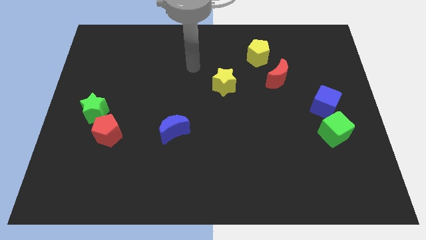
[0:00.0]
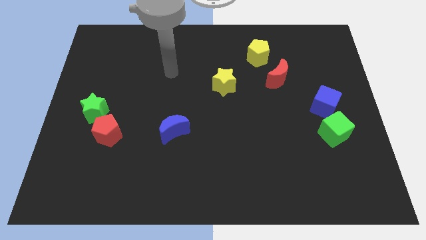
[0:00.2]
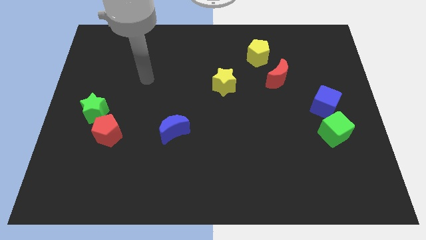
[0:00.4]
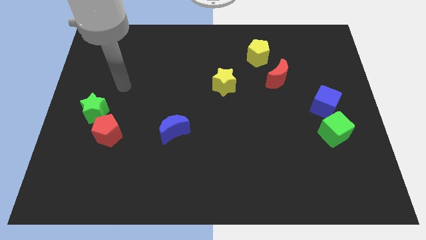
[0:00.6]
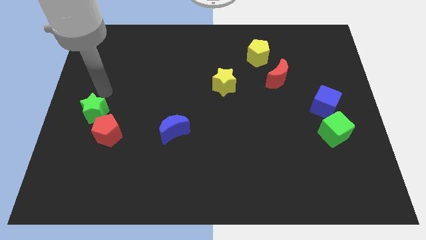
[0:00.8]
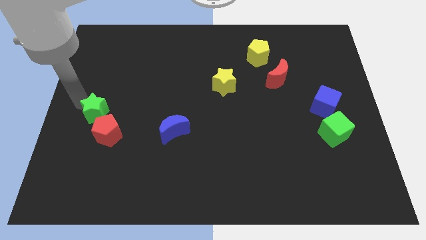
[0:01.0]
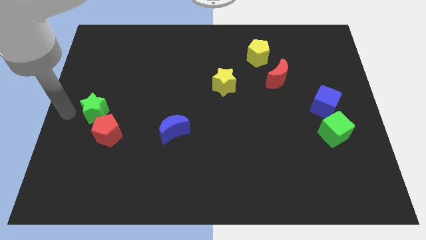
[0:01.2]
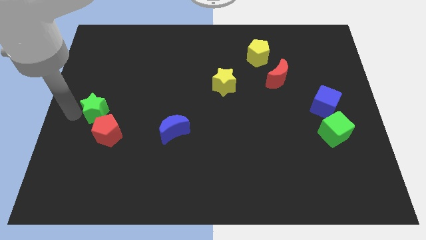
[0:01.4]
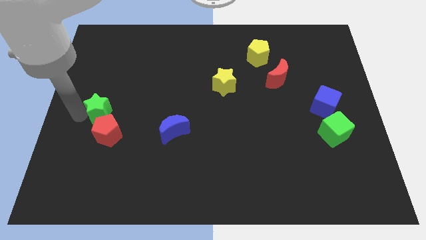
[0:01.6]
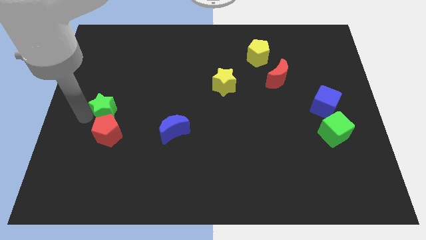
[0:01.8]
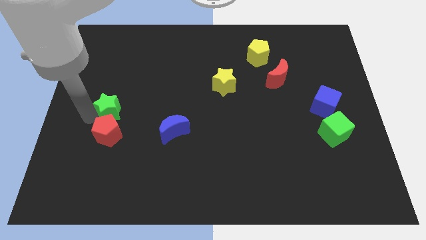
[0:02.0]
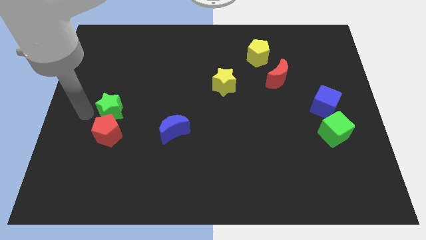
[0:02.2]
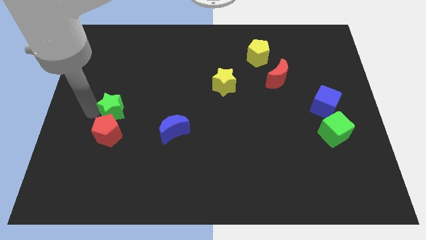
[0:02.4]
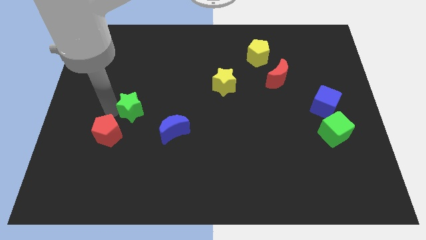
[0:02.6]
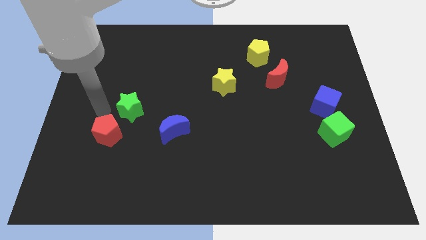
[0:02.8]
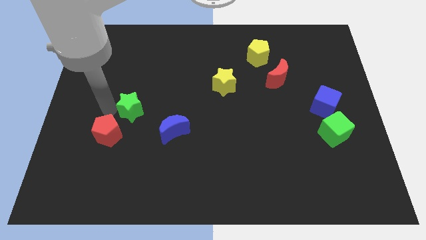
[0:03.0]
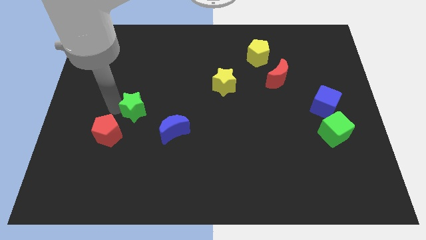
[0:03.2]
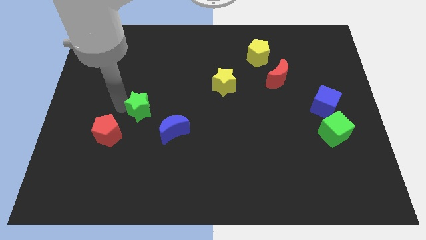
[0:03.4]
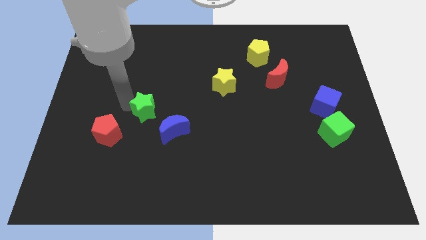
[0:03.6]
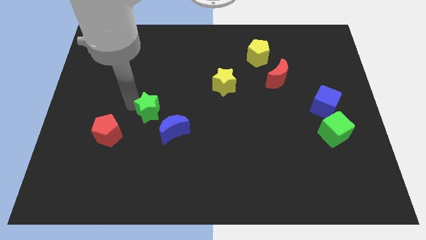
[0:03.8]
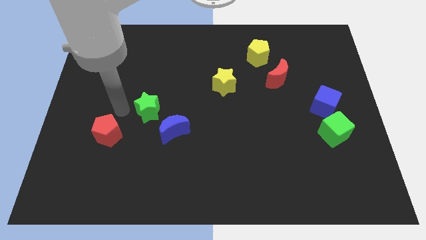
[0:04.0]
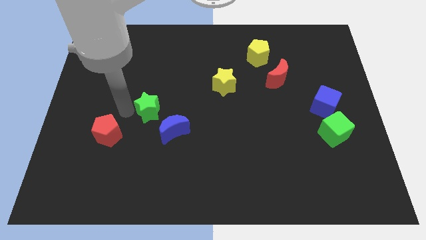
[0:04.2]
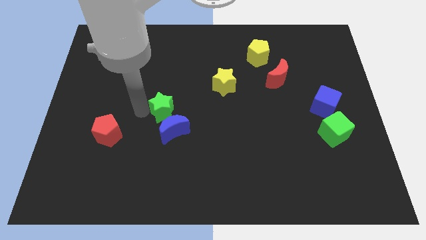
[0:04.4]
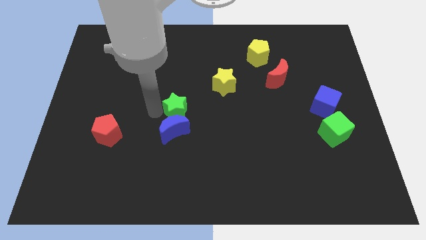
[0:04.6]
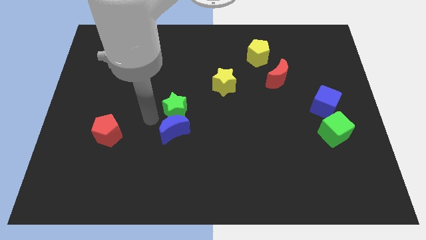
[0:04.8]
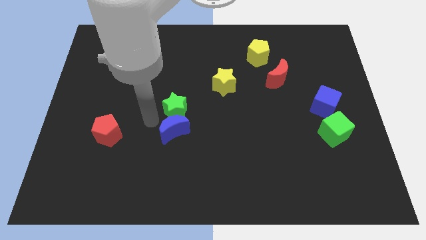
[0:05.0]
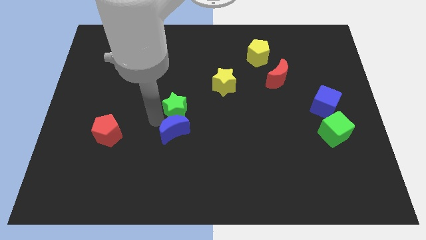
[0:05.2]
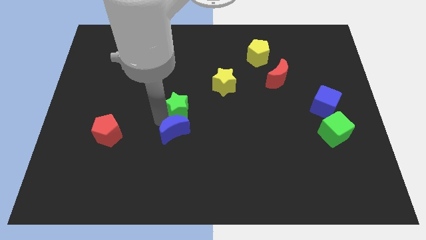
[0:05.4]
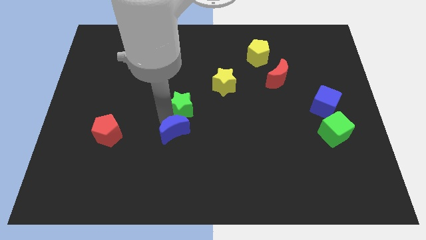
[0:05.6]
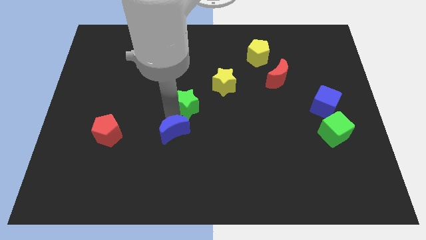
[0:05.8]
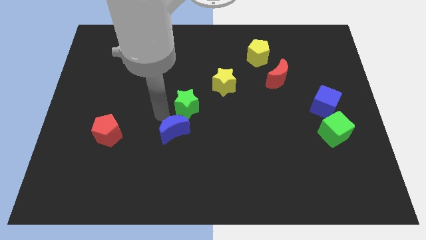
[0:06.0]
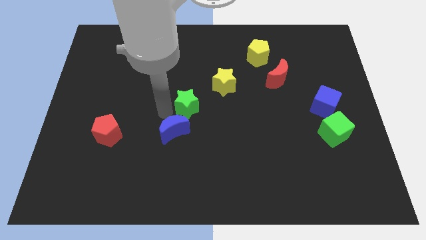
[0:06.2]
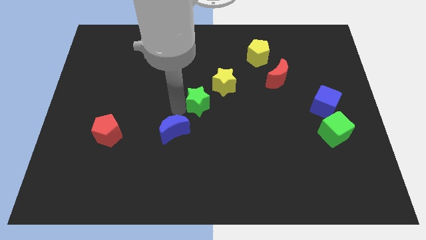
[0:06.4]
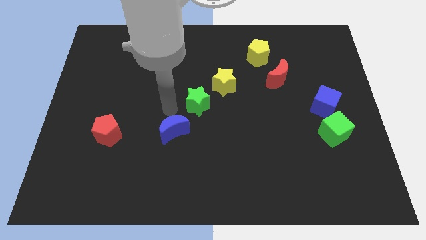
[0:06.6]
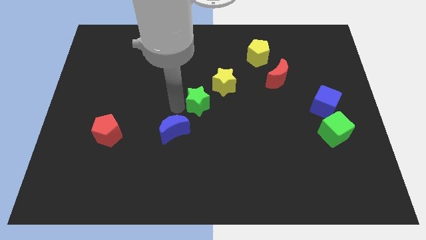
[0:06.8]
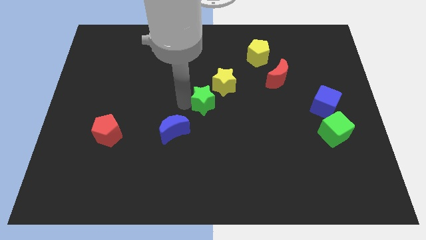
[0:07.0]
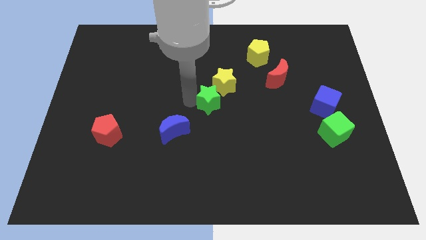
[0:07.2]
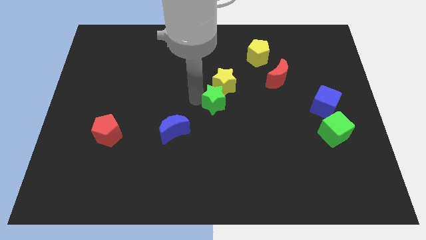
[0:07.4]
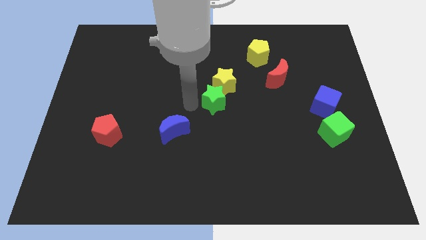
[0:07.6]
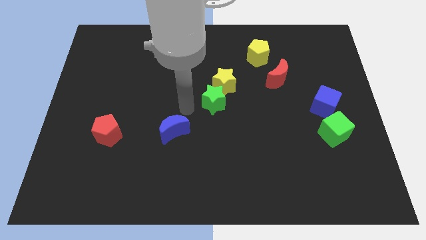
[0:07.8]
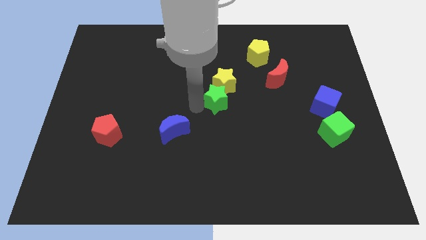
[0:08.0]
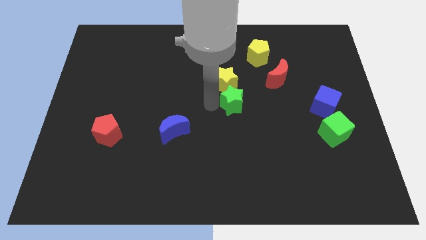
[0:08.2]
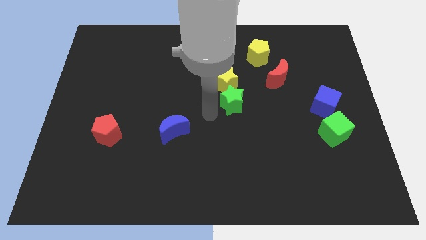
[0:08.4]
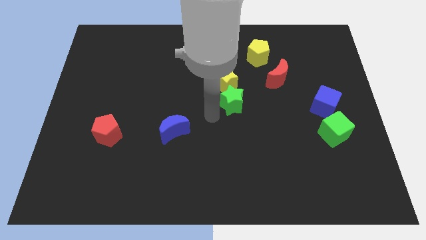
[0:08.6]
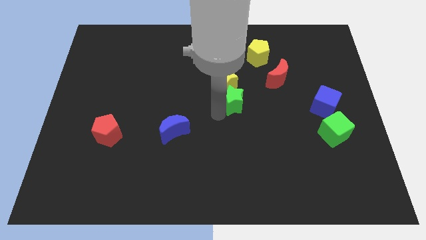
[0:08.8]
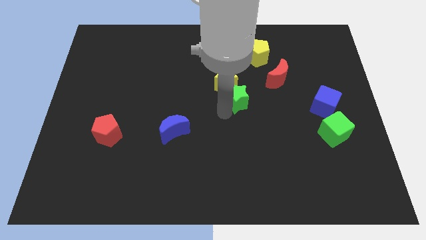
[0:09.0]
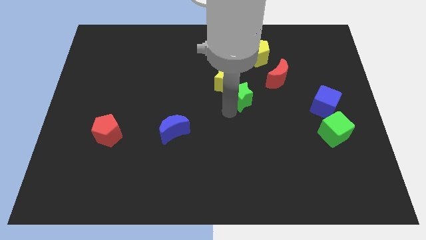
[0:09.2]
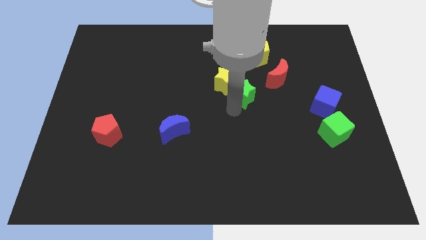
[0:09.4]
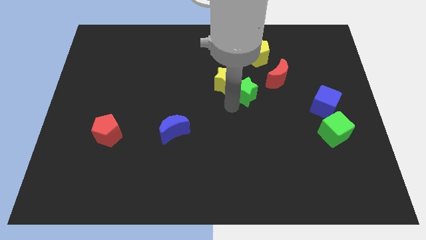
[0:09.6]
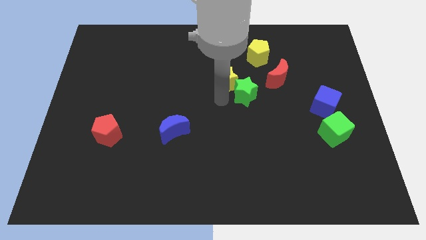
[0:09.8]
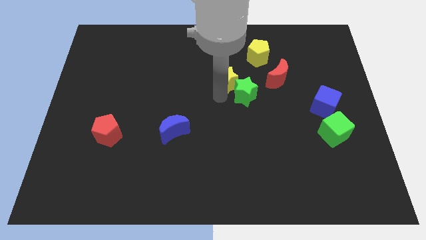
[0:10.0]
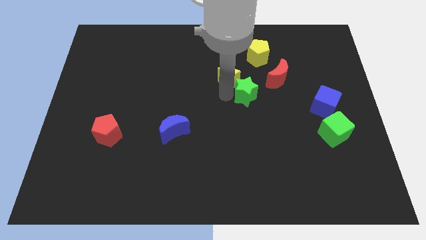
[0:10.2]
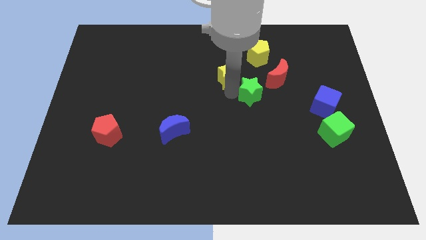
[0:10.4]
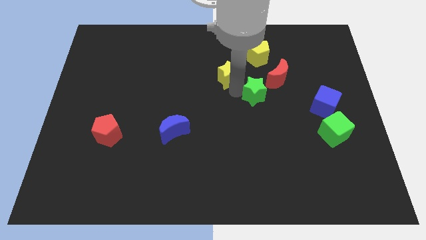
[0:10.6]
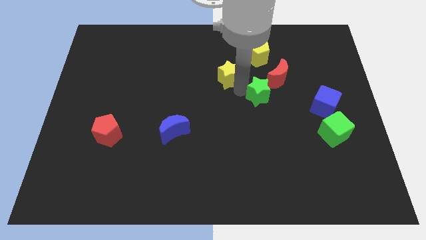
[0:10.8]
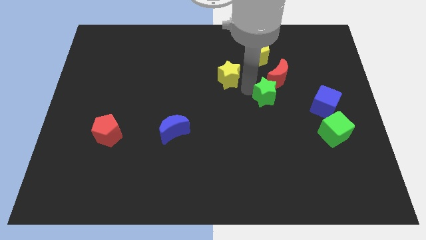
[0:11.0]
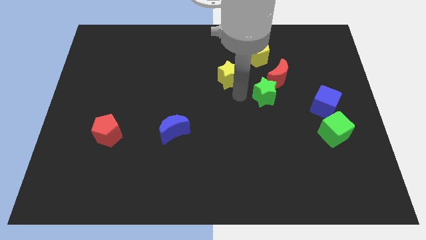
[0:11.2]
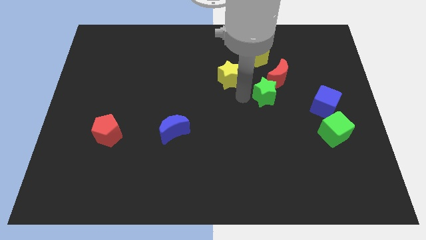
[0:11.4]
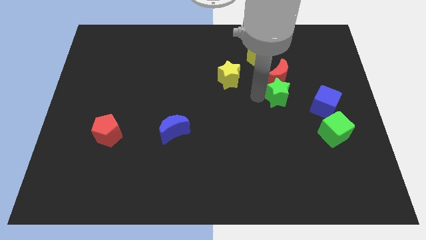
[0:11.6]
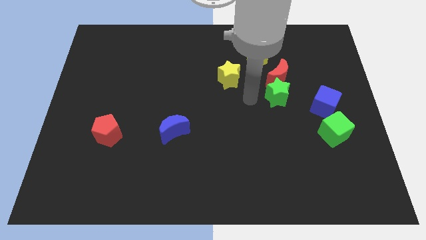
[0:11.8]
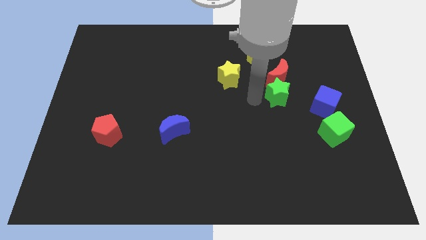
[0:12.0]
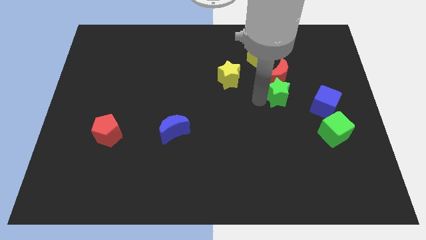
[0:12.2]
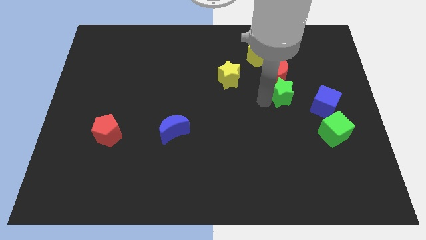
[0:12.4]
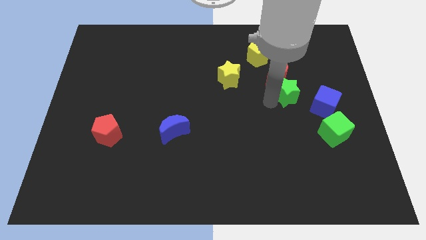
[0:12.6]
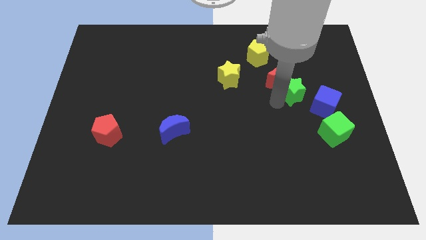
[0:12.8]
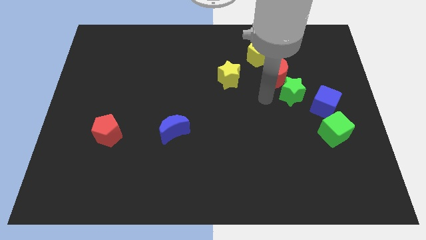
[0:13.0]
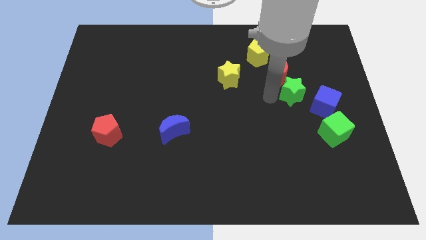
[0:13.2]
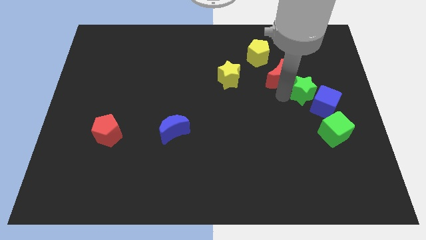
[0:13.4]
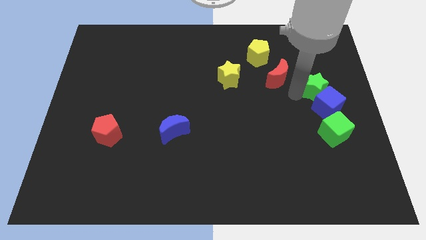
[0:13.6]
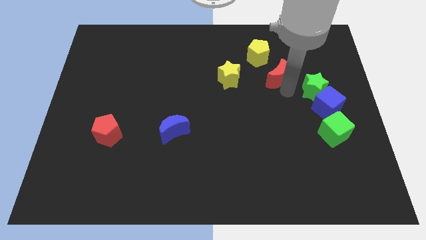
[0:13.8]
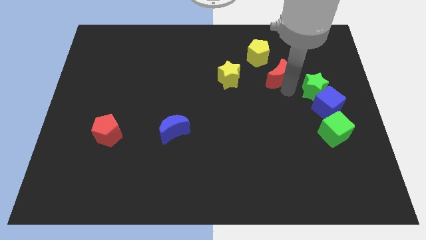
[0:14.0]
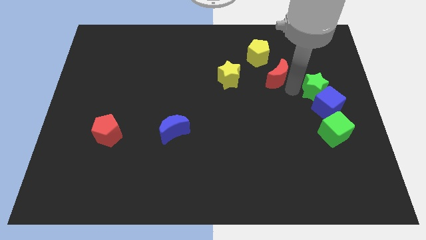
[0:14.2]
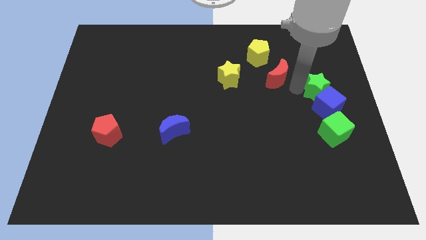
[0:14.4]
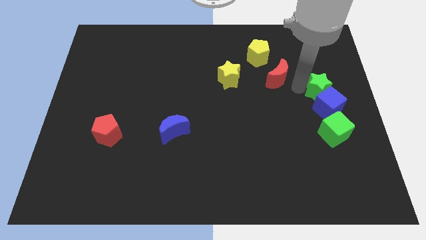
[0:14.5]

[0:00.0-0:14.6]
put the green star to the right side of the board
